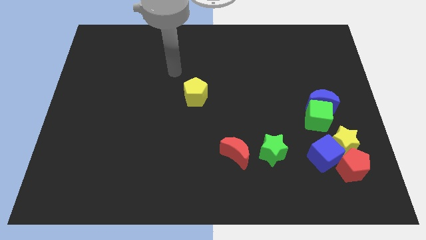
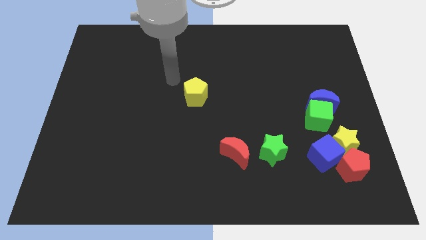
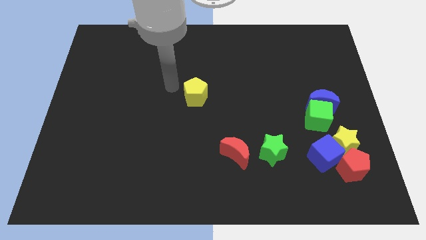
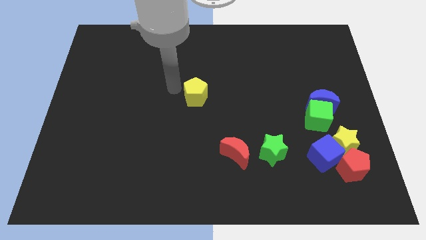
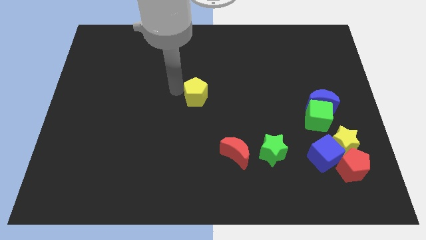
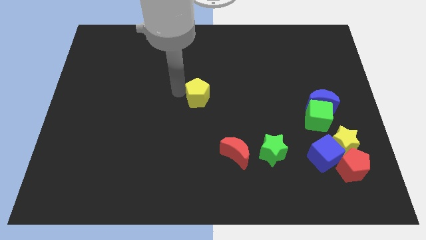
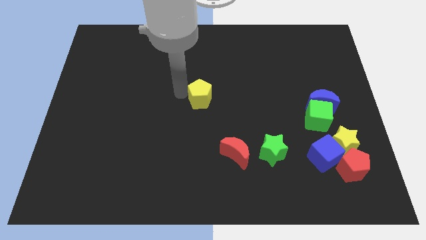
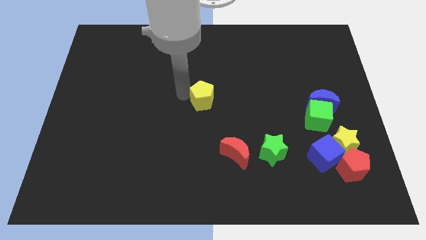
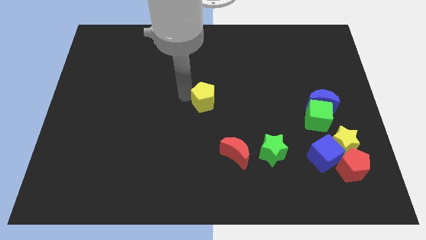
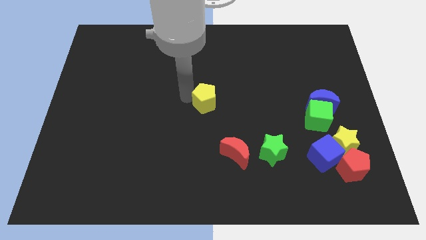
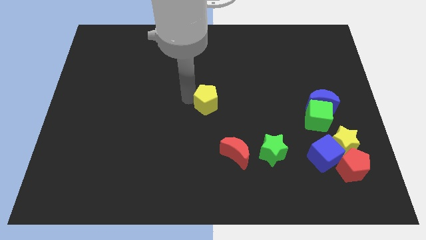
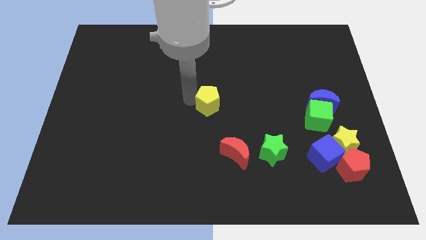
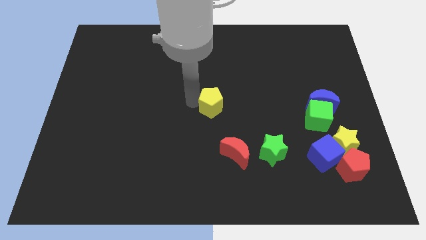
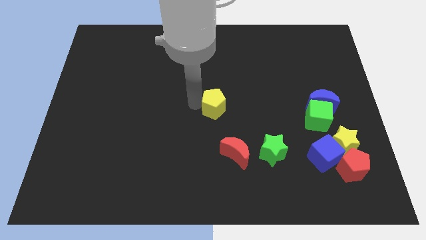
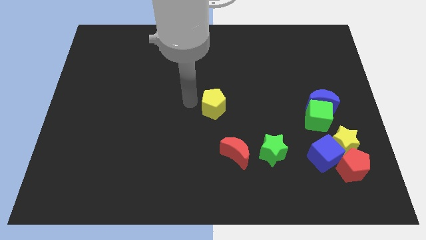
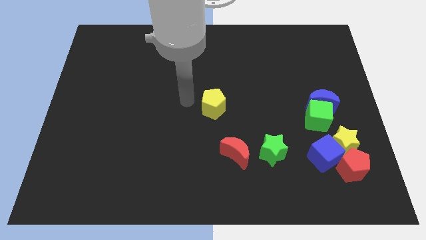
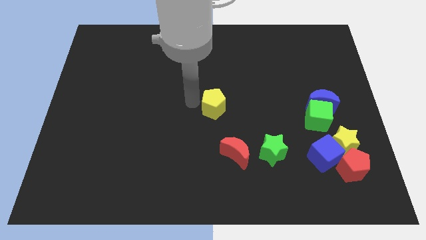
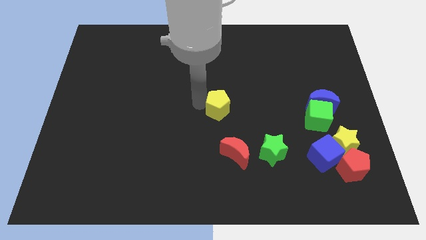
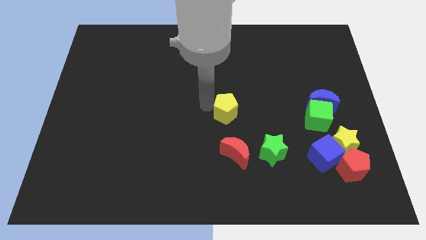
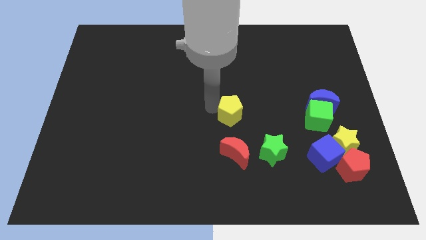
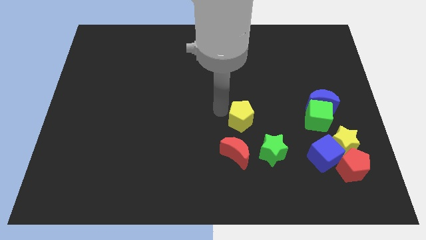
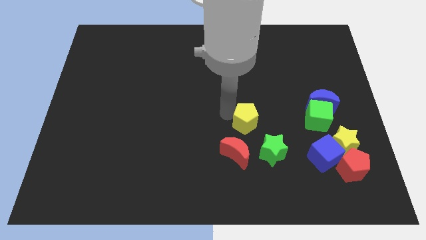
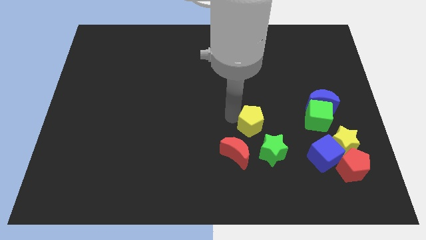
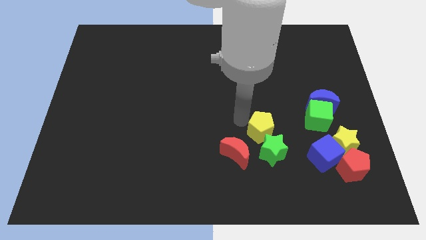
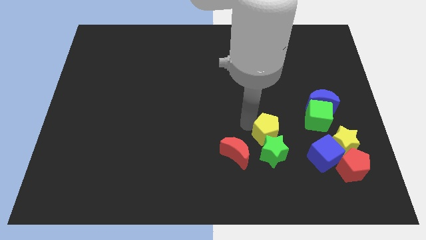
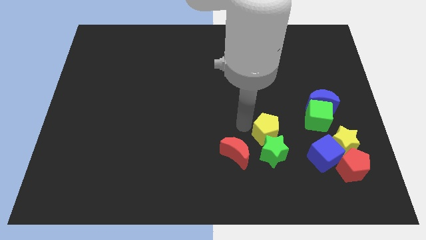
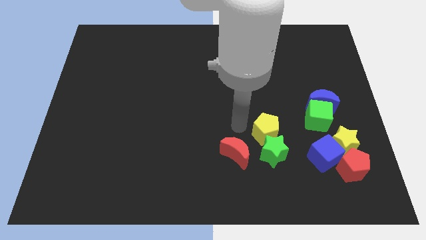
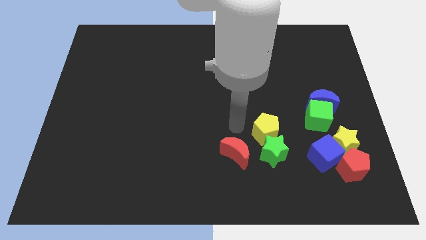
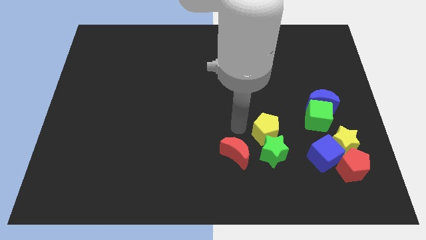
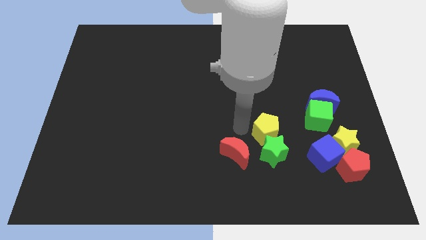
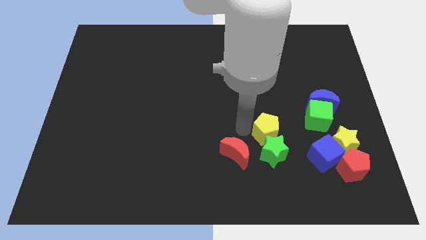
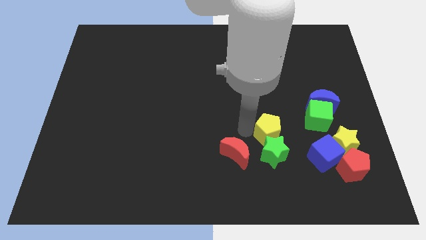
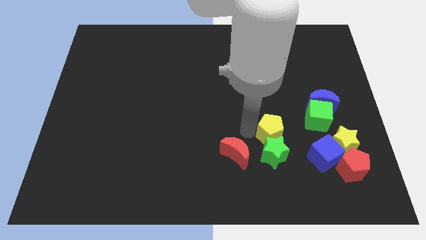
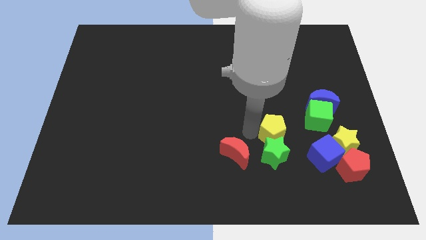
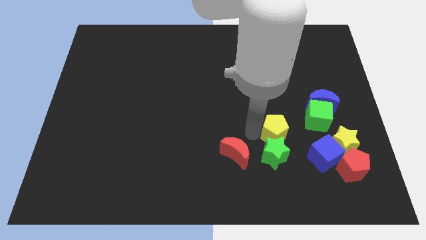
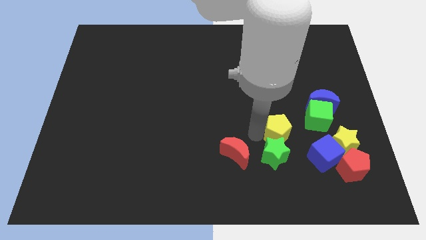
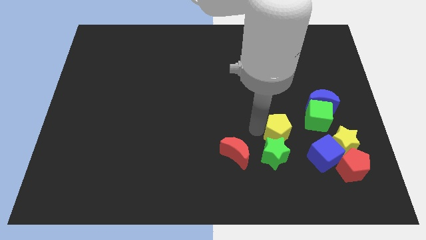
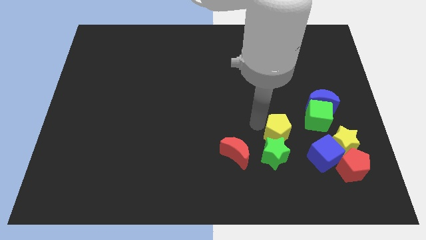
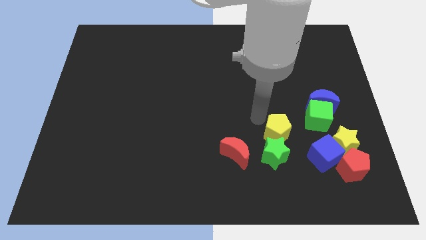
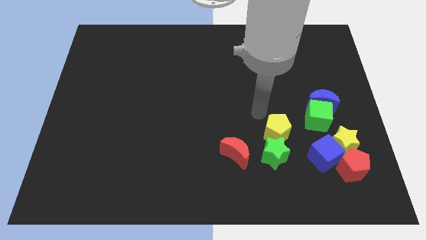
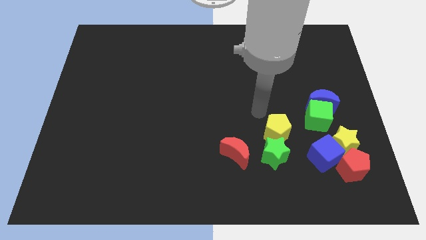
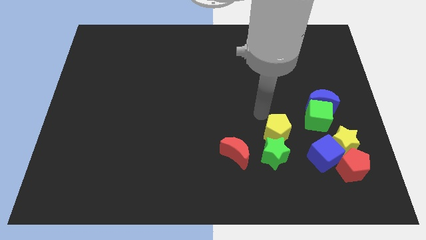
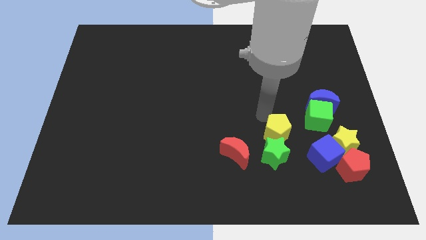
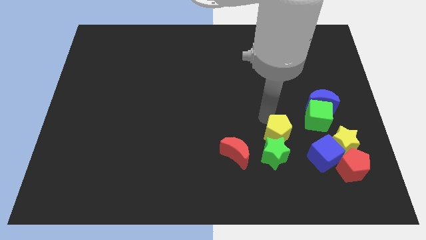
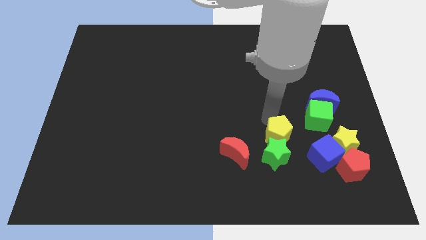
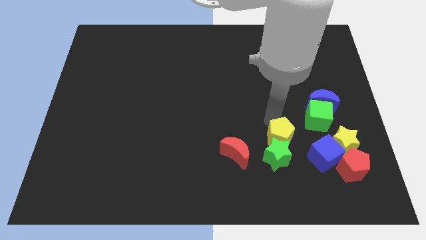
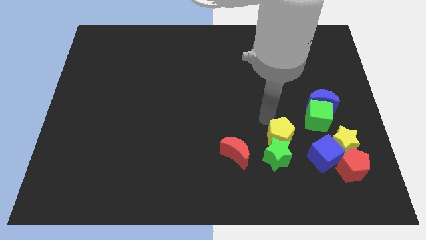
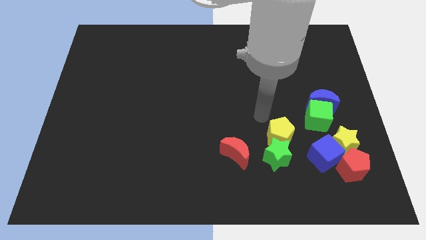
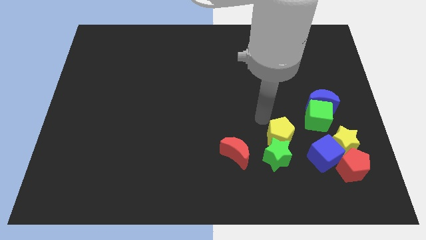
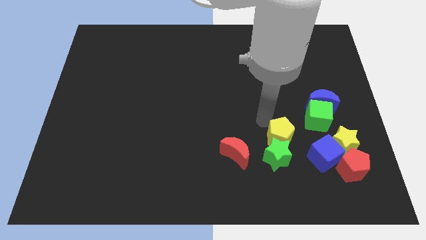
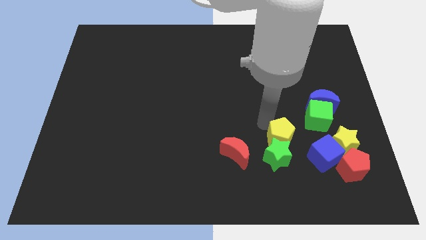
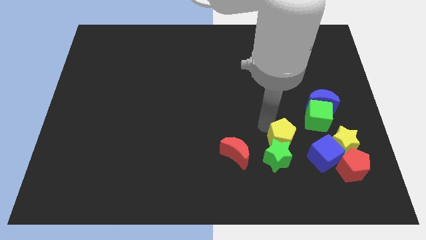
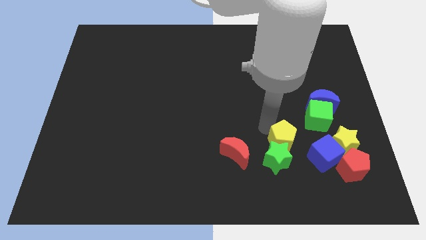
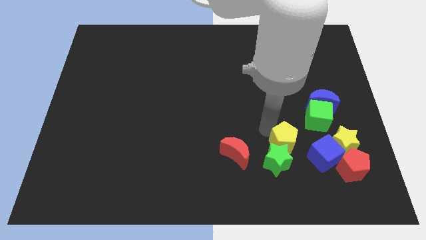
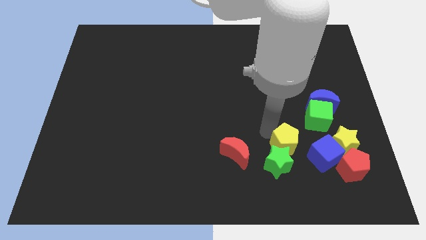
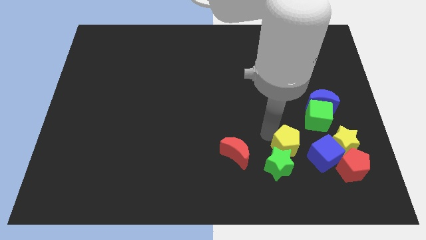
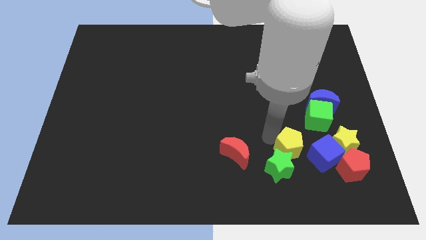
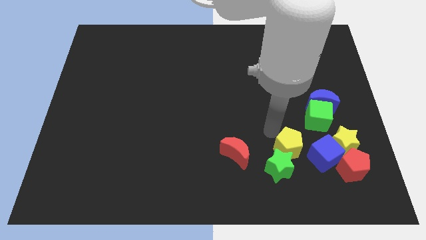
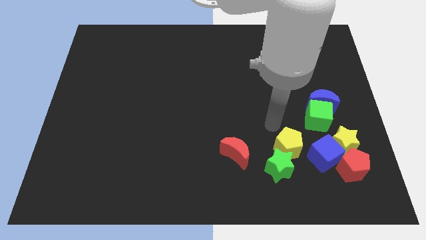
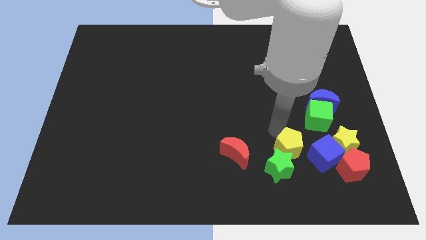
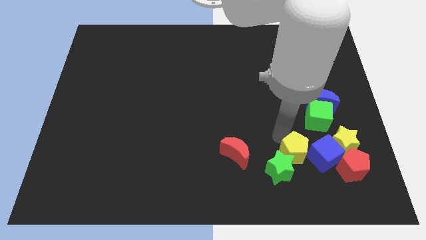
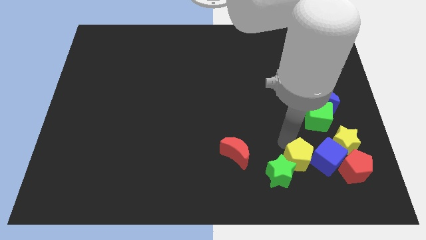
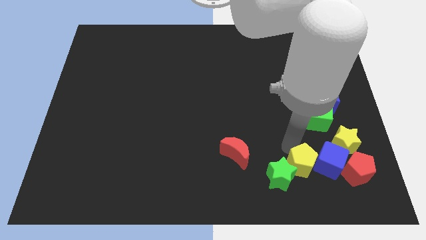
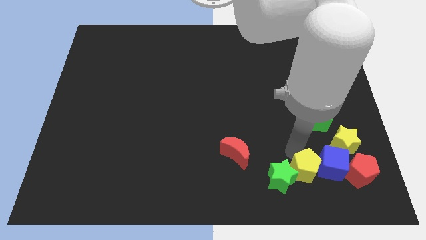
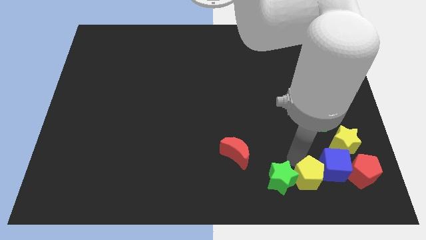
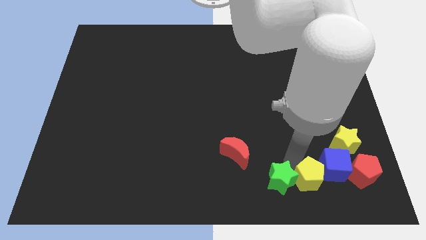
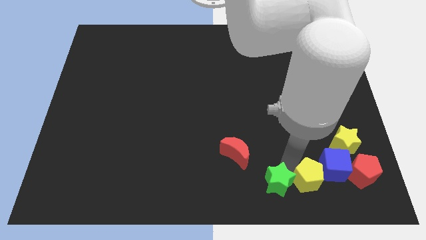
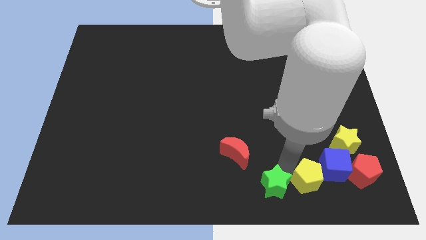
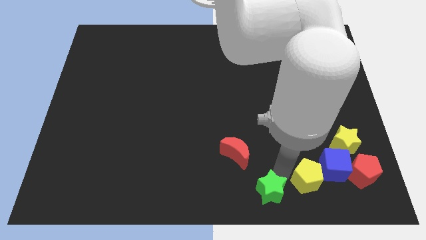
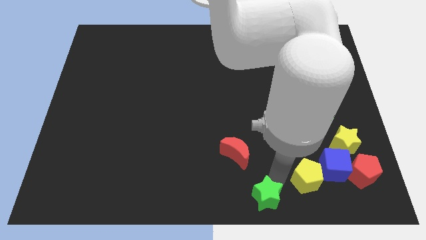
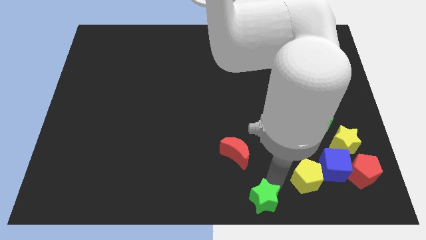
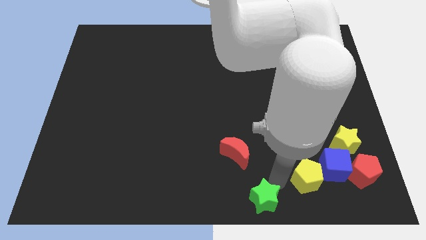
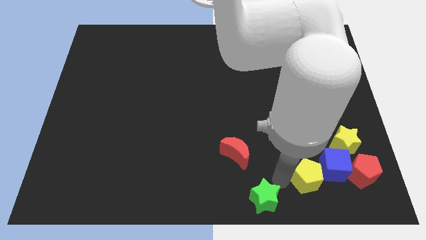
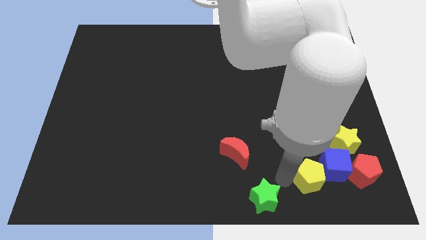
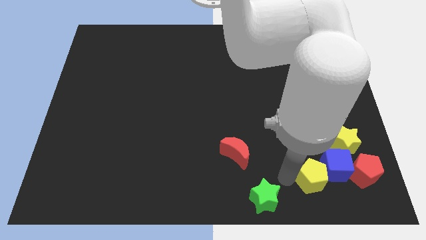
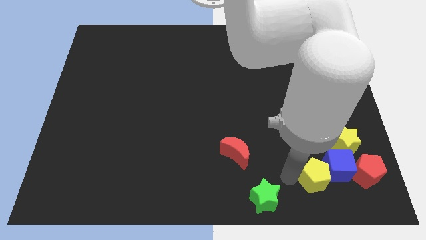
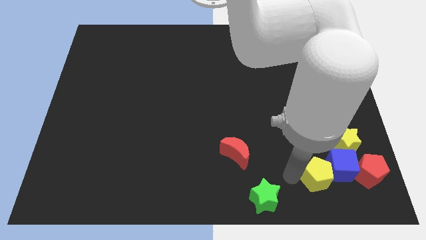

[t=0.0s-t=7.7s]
put the yellow pentagon below the green cube

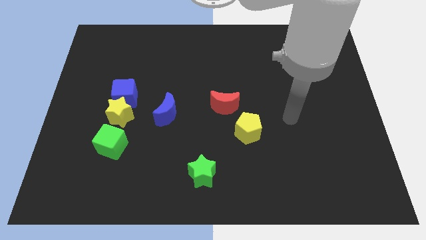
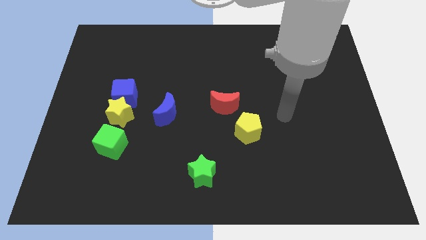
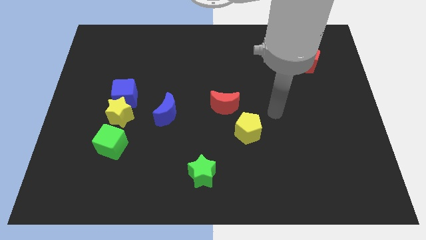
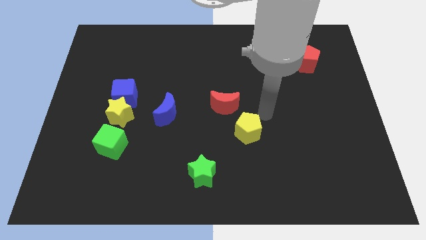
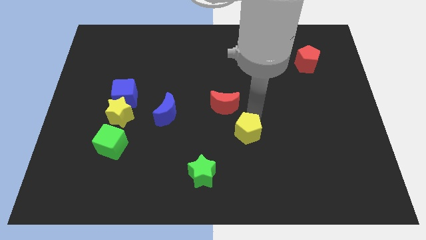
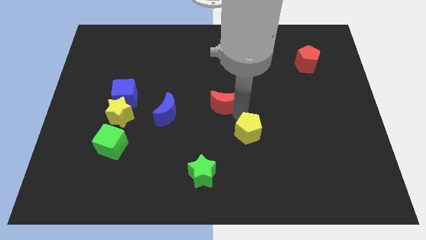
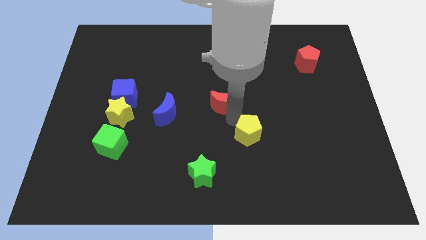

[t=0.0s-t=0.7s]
put the red moon to the top of the yellow pentagon
